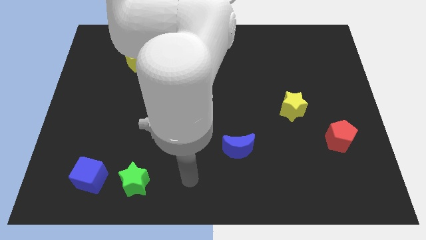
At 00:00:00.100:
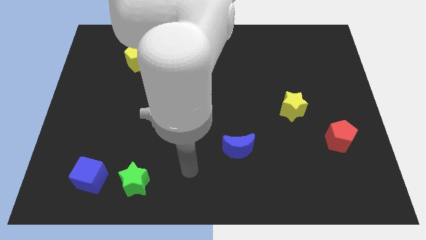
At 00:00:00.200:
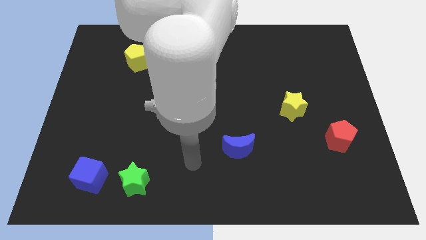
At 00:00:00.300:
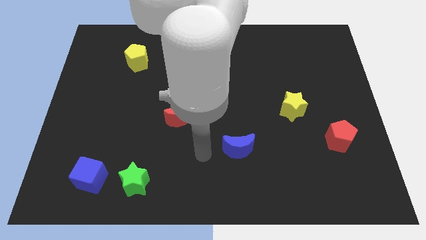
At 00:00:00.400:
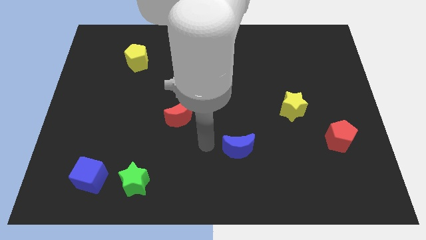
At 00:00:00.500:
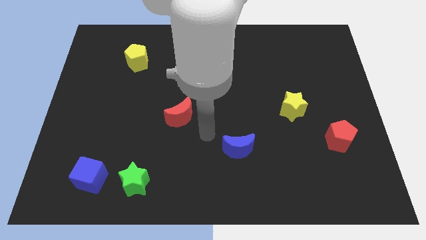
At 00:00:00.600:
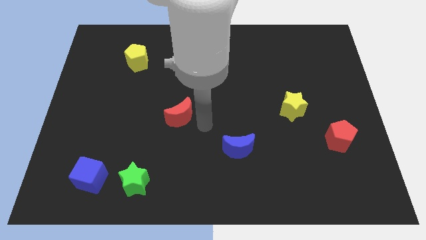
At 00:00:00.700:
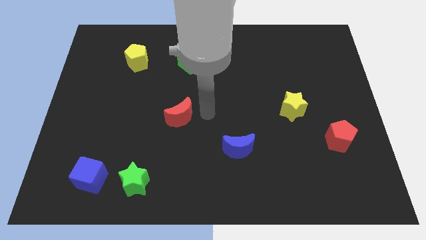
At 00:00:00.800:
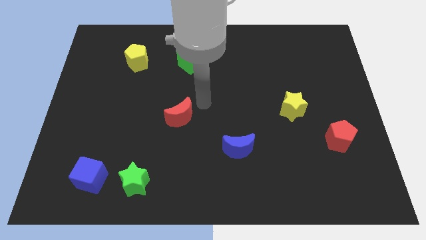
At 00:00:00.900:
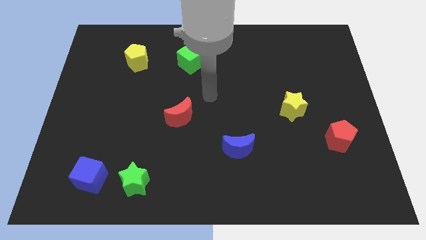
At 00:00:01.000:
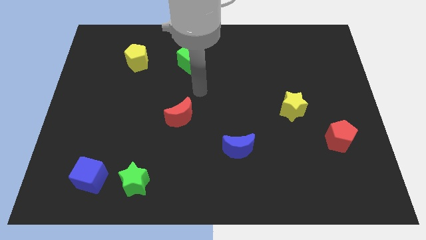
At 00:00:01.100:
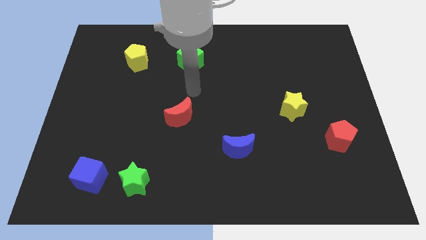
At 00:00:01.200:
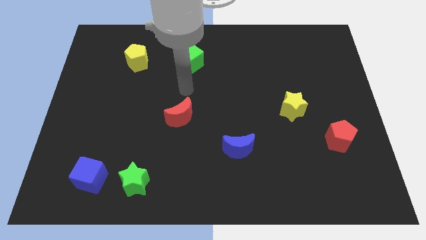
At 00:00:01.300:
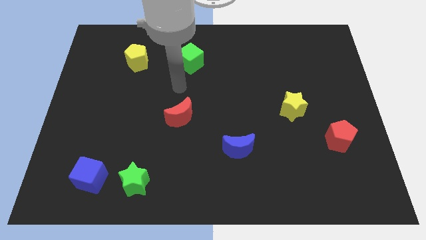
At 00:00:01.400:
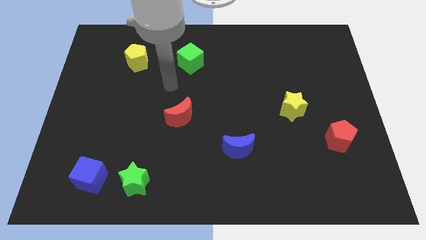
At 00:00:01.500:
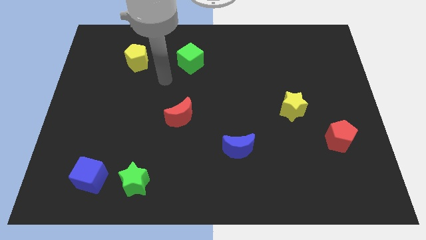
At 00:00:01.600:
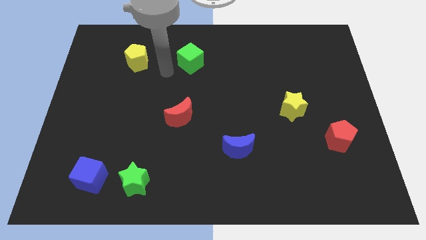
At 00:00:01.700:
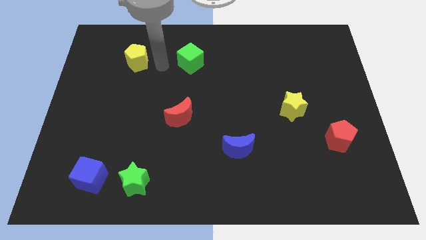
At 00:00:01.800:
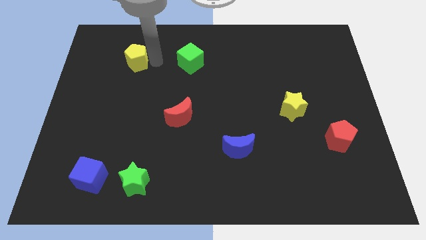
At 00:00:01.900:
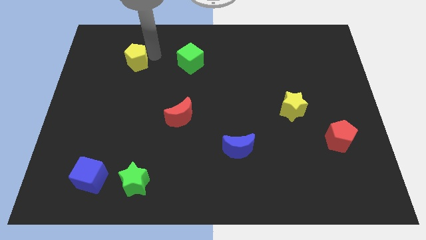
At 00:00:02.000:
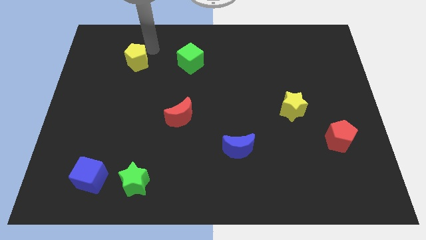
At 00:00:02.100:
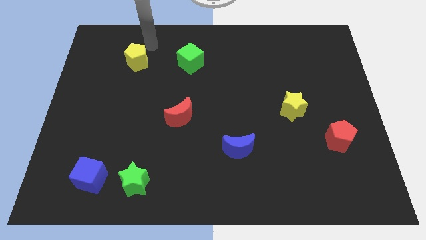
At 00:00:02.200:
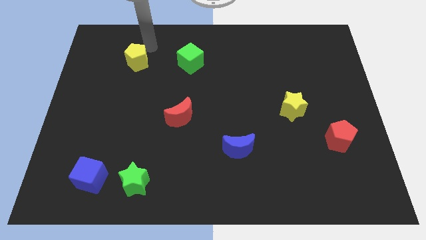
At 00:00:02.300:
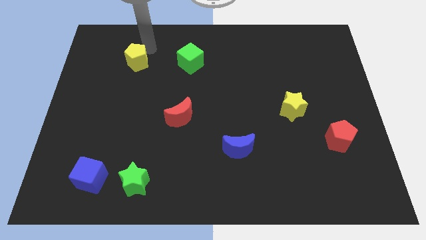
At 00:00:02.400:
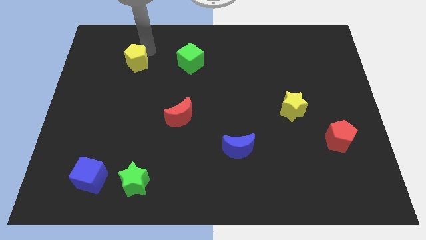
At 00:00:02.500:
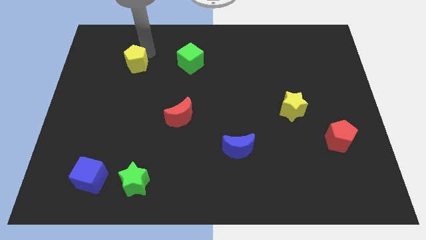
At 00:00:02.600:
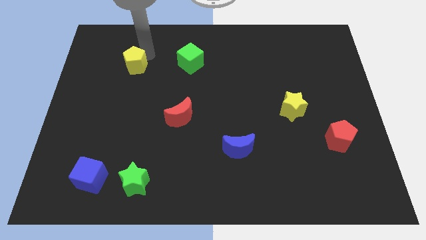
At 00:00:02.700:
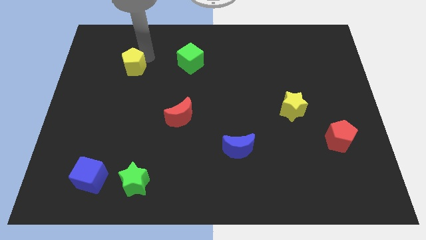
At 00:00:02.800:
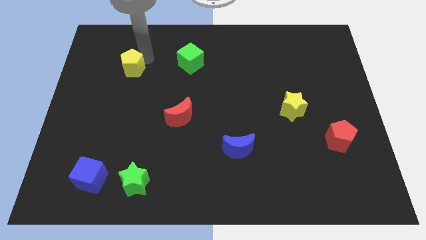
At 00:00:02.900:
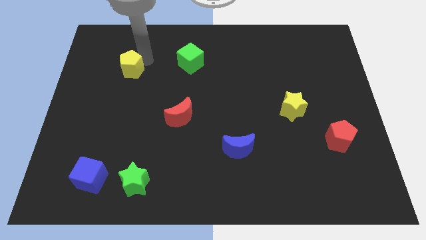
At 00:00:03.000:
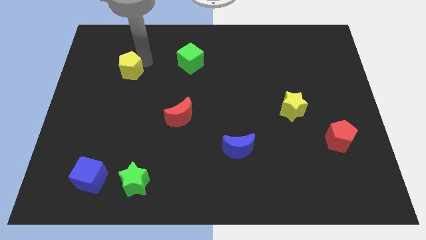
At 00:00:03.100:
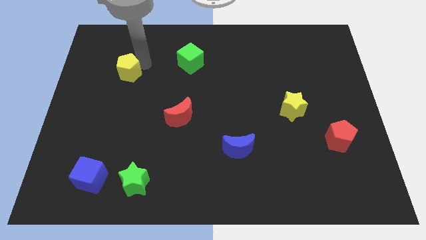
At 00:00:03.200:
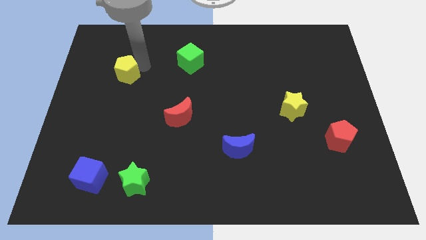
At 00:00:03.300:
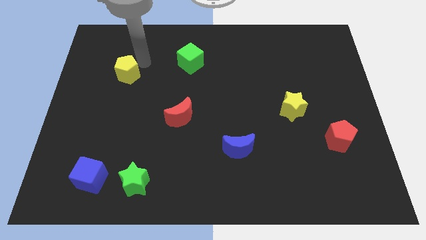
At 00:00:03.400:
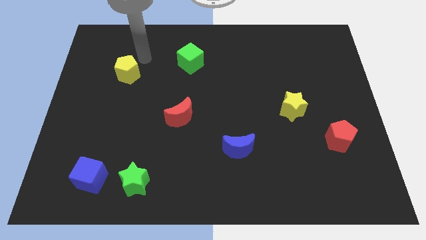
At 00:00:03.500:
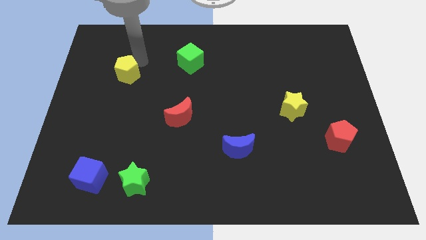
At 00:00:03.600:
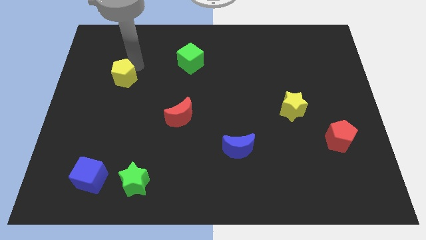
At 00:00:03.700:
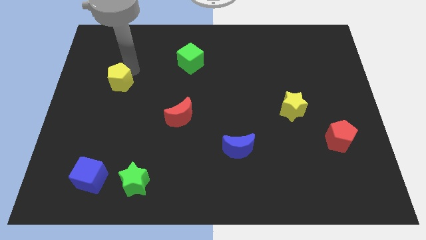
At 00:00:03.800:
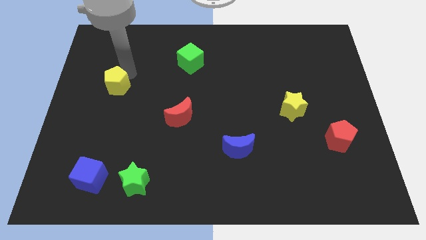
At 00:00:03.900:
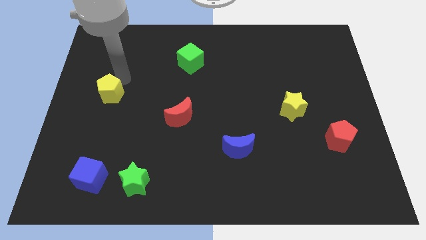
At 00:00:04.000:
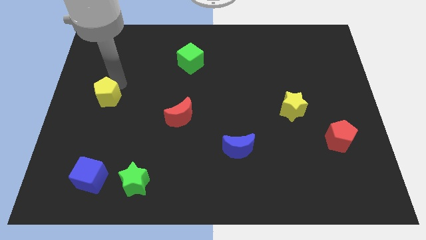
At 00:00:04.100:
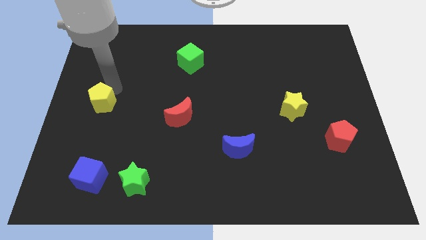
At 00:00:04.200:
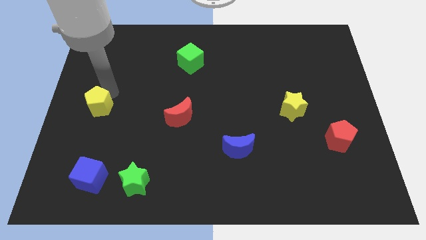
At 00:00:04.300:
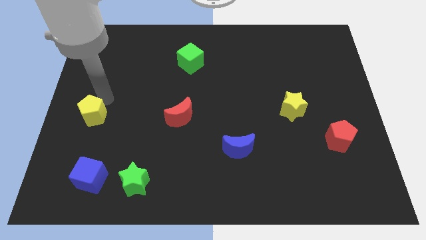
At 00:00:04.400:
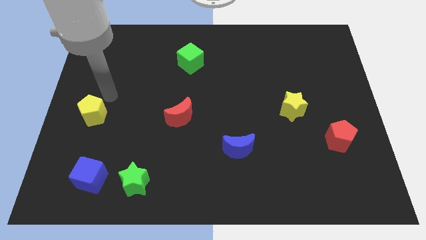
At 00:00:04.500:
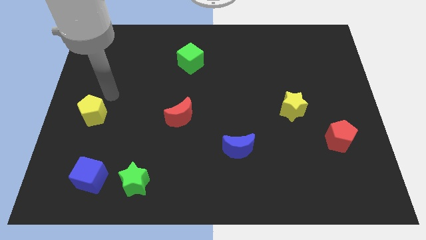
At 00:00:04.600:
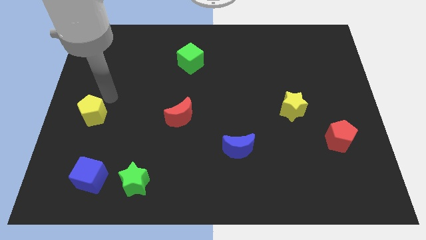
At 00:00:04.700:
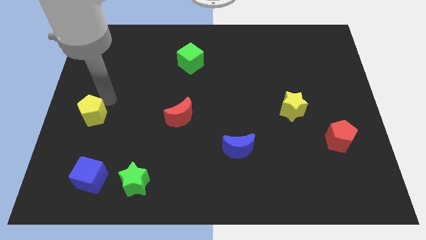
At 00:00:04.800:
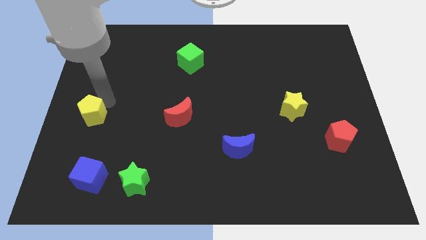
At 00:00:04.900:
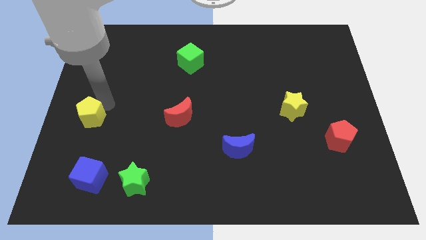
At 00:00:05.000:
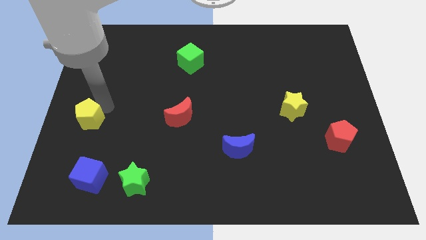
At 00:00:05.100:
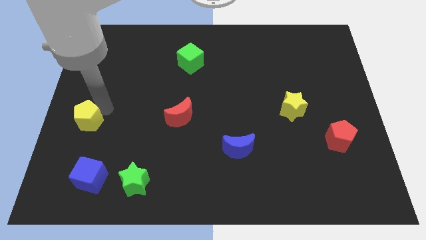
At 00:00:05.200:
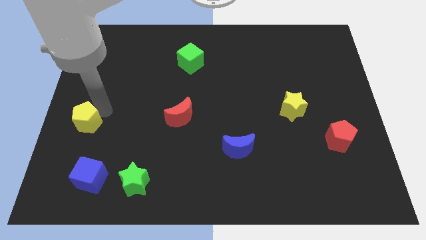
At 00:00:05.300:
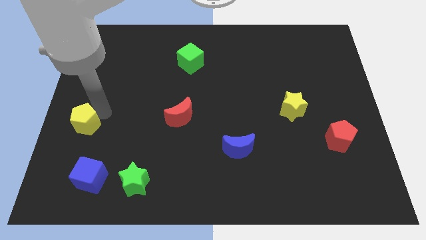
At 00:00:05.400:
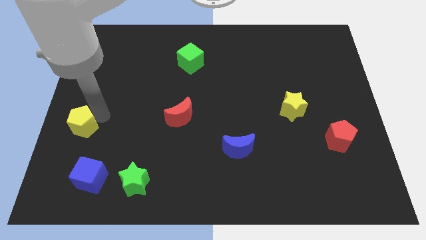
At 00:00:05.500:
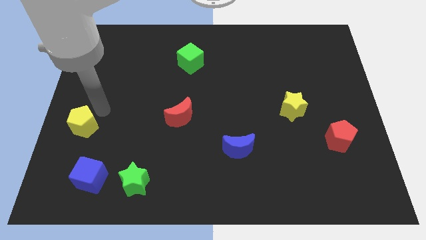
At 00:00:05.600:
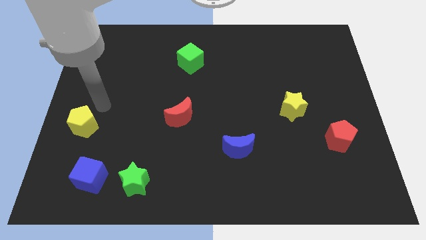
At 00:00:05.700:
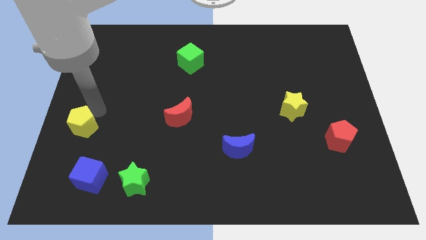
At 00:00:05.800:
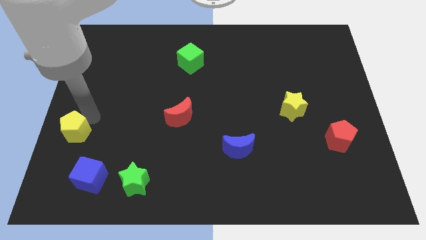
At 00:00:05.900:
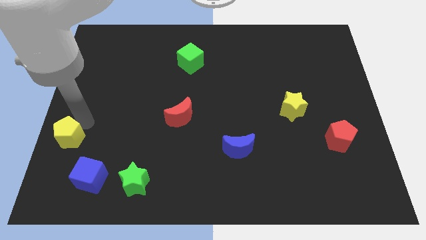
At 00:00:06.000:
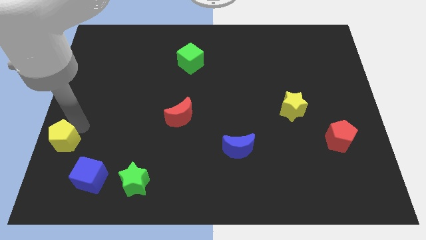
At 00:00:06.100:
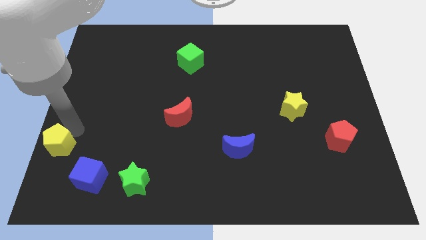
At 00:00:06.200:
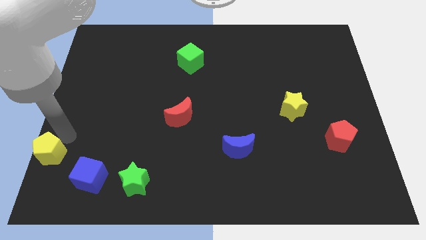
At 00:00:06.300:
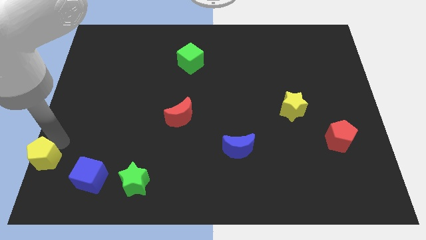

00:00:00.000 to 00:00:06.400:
put the yellow pentagon to the bottom left corner
